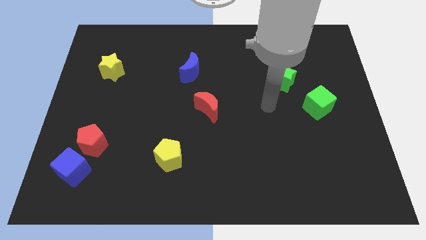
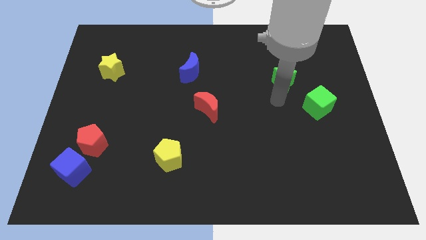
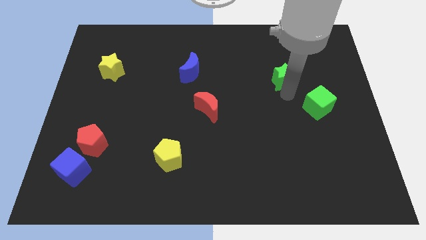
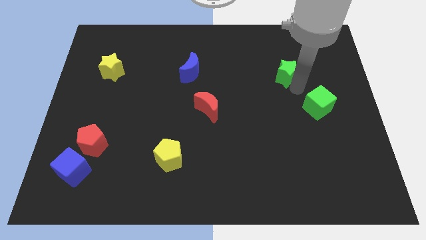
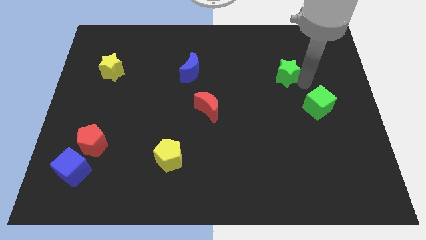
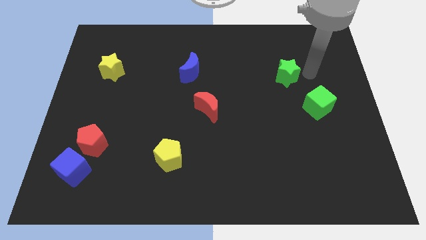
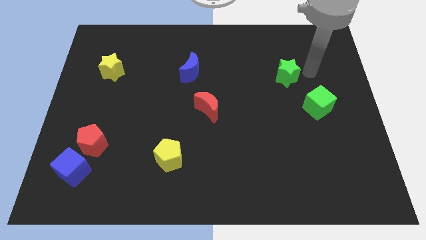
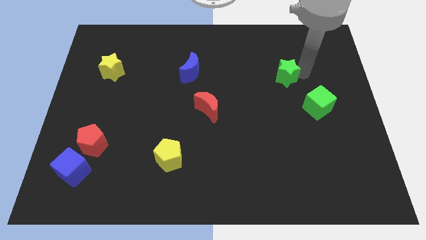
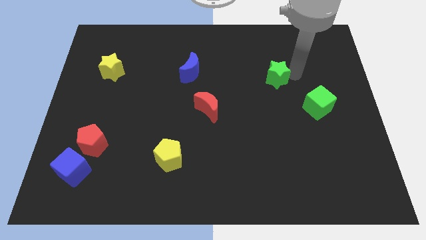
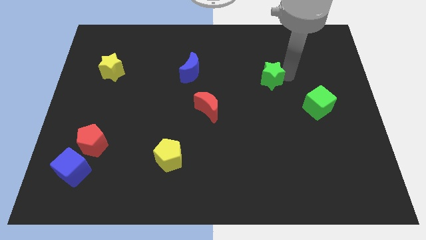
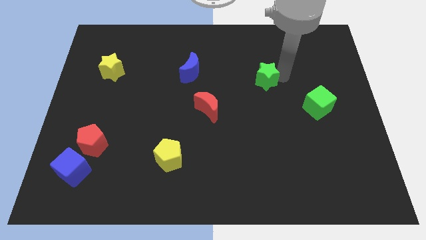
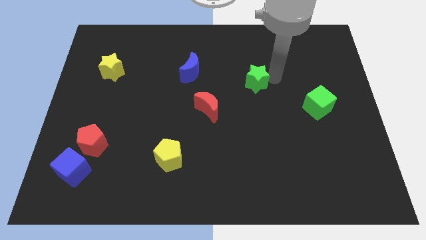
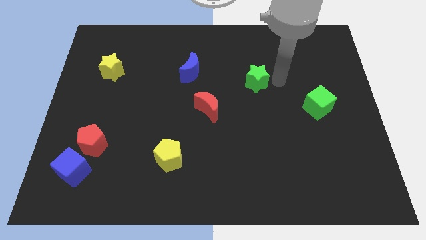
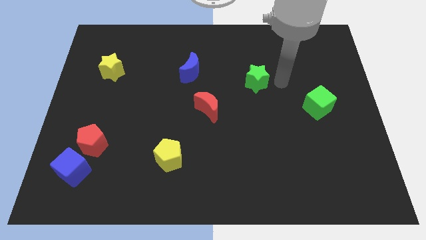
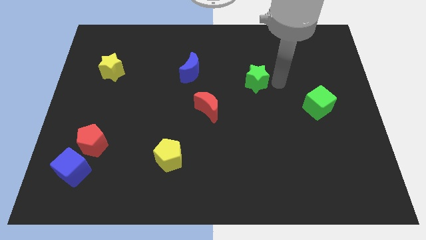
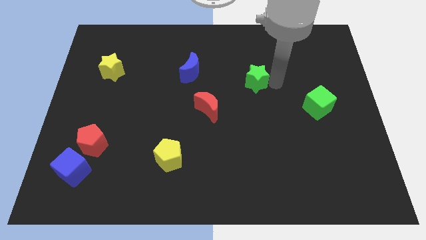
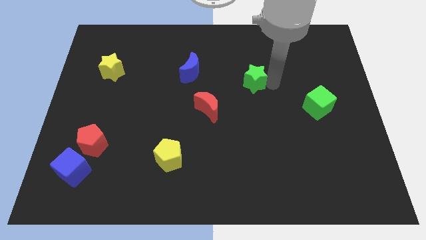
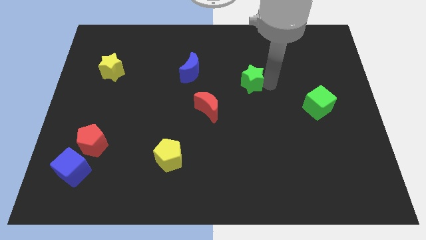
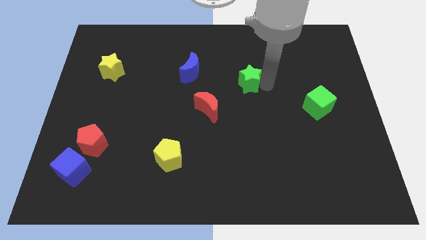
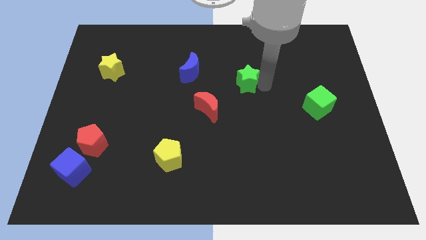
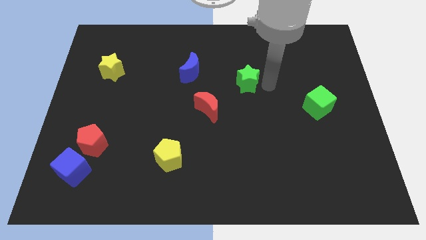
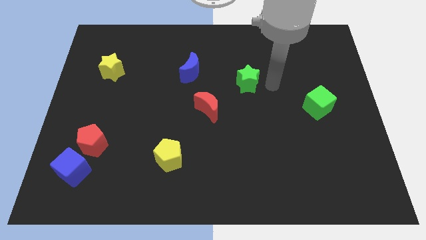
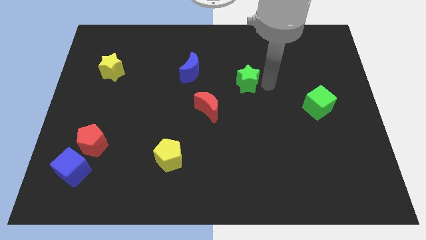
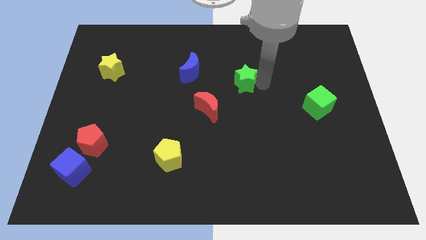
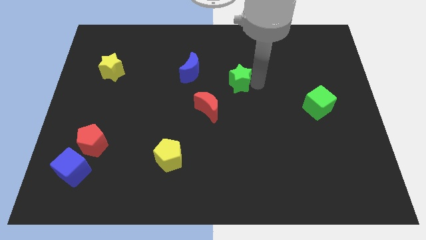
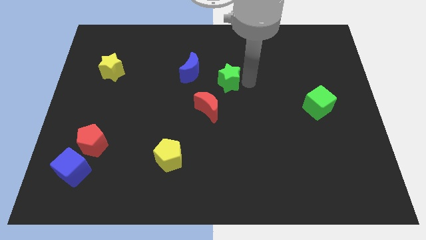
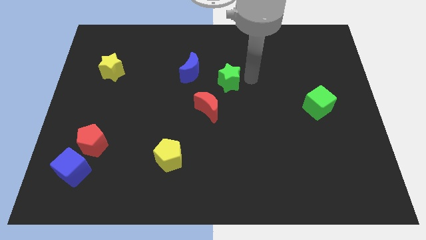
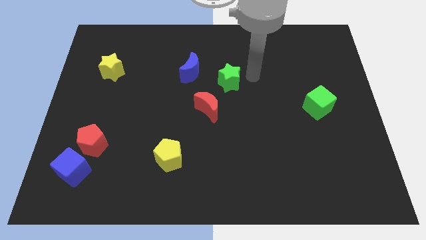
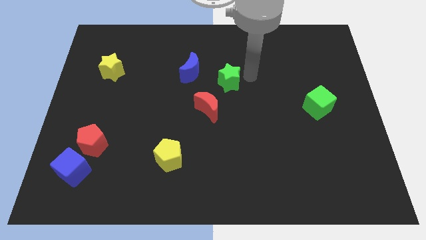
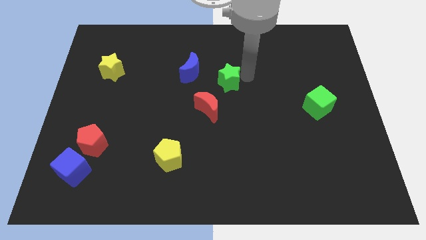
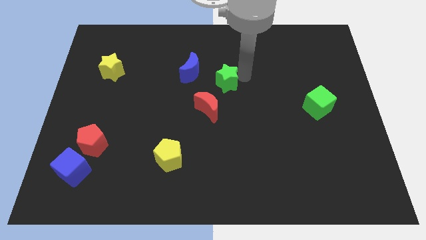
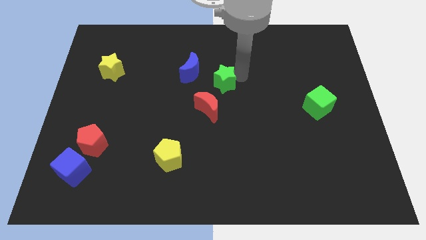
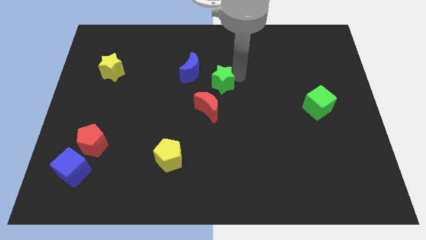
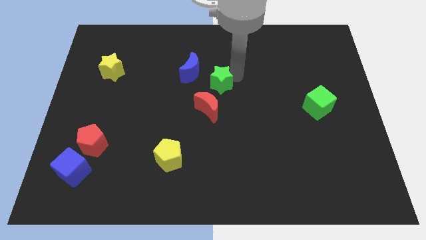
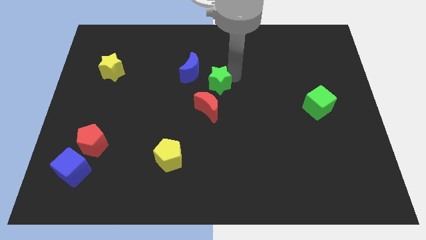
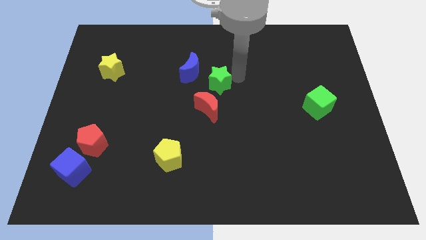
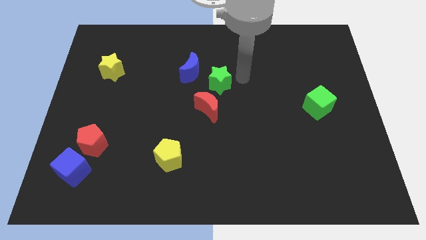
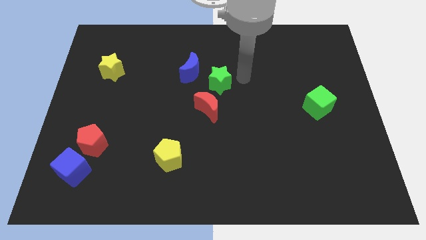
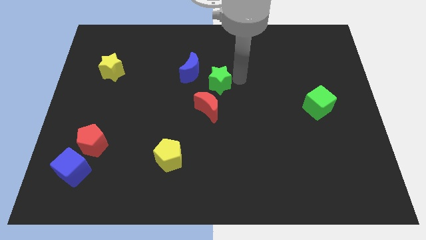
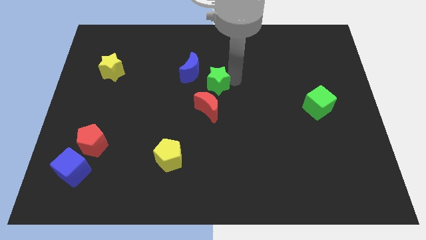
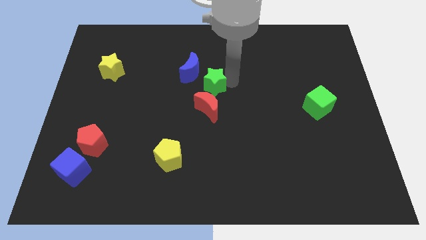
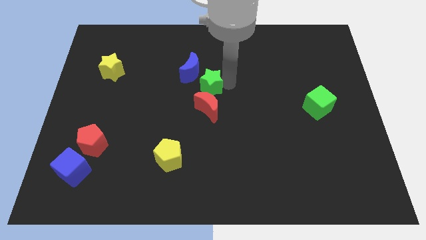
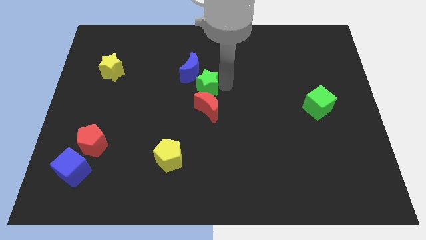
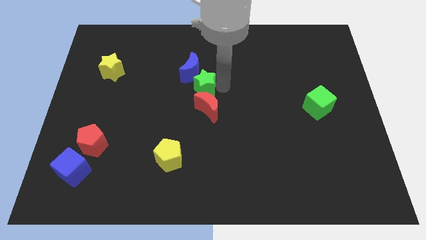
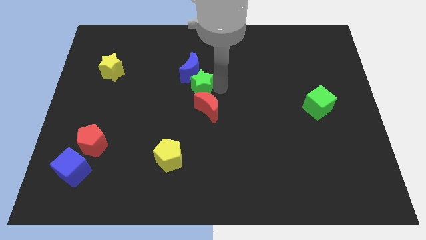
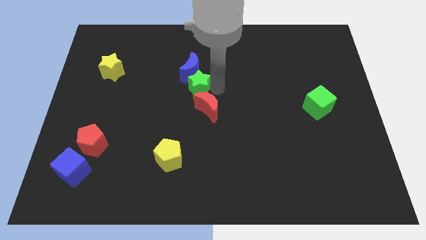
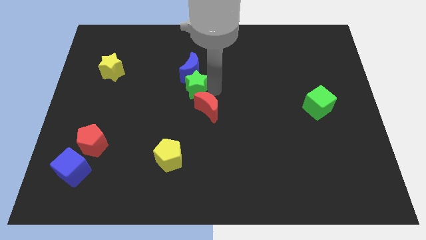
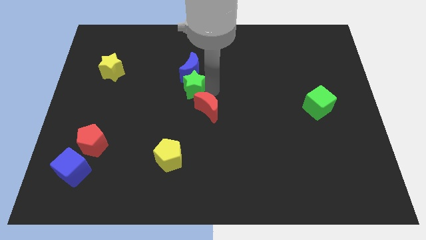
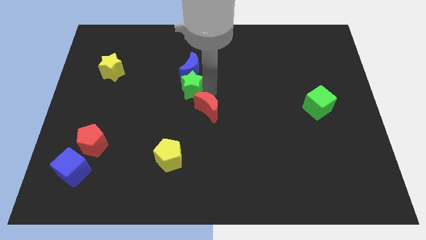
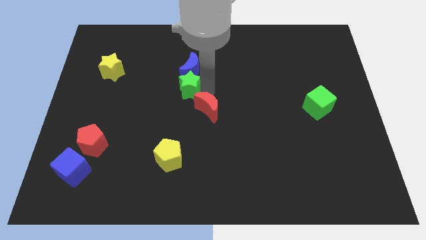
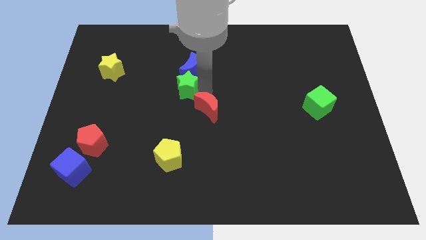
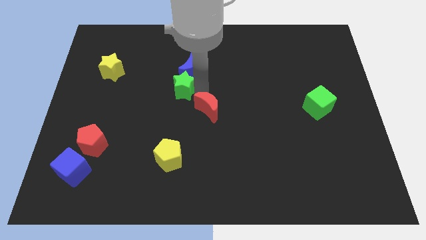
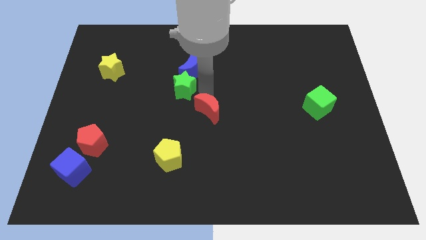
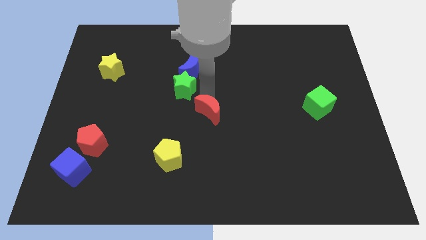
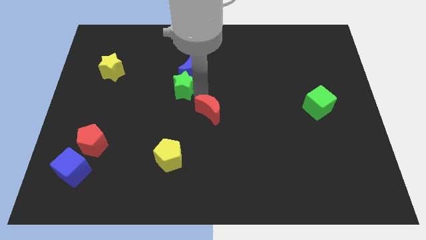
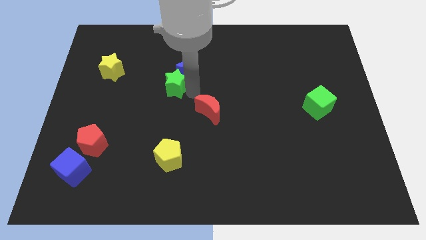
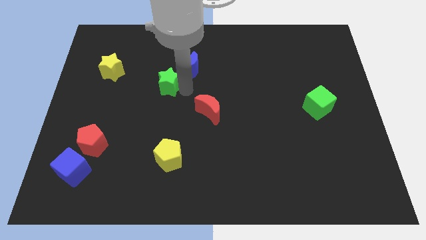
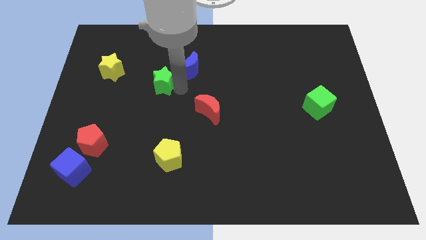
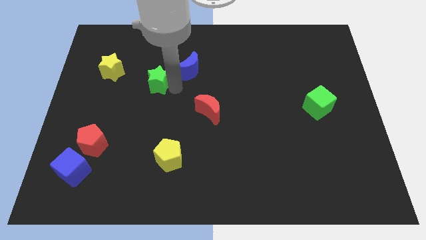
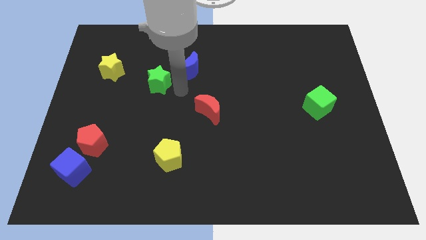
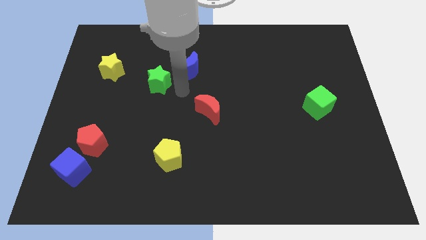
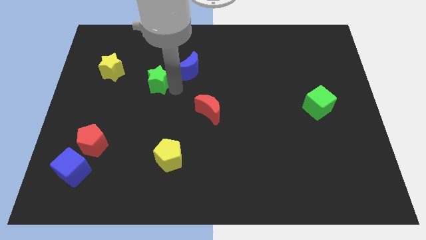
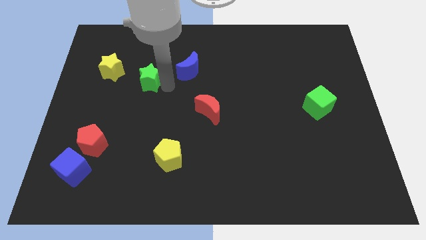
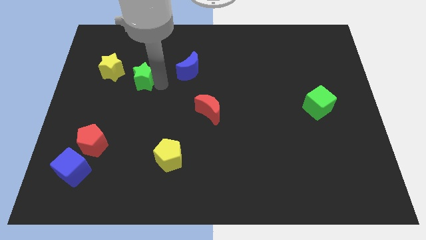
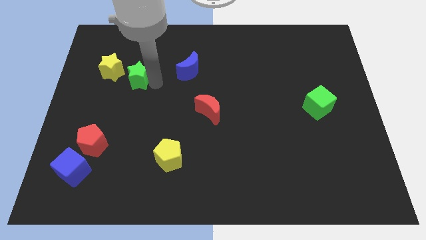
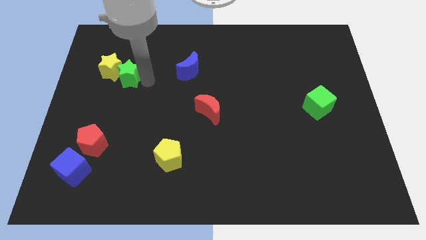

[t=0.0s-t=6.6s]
move the green star next to the yellow star

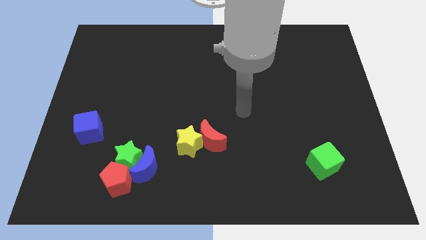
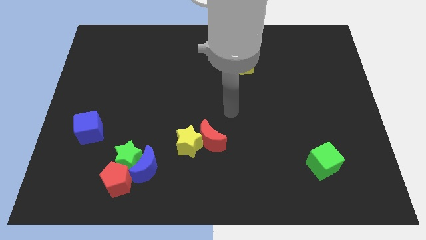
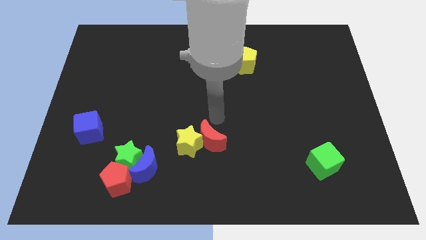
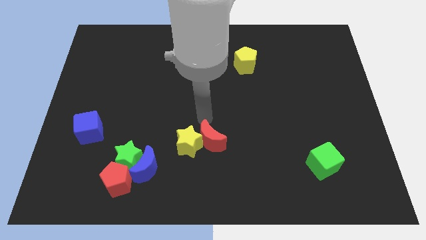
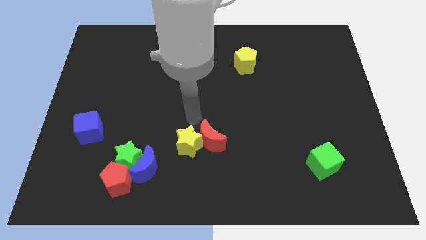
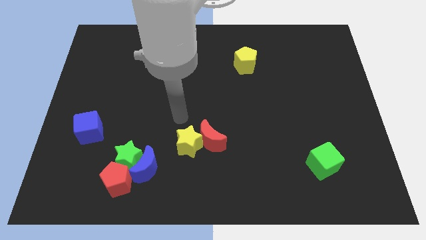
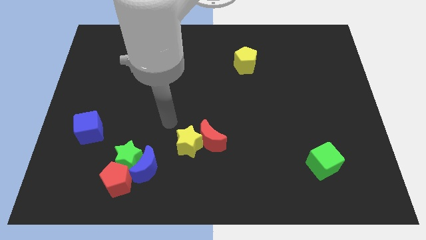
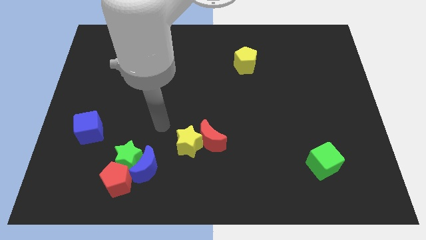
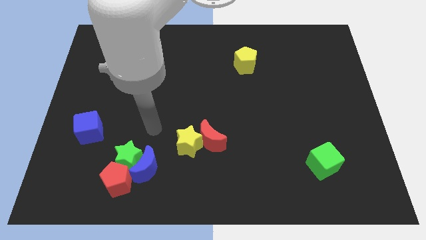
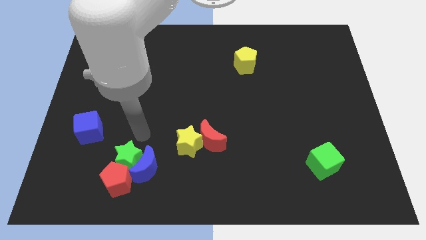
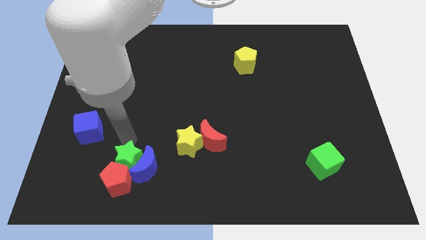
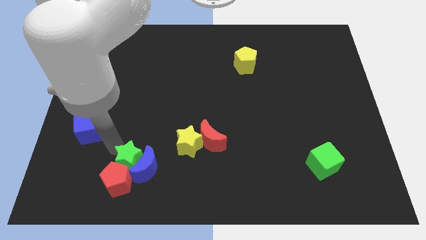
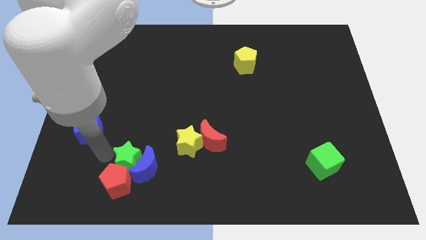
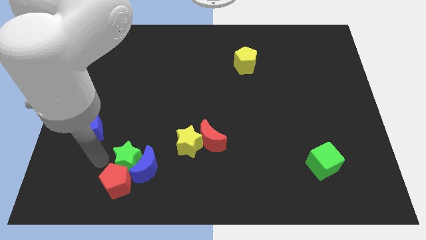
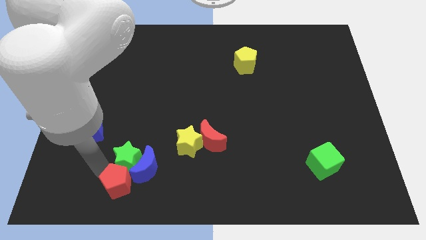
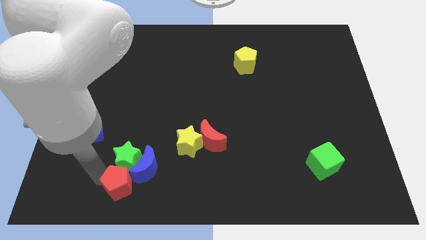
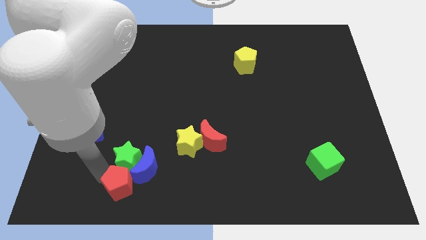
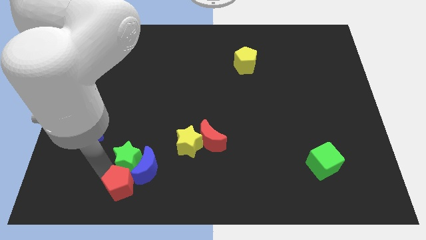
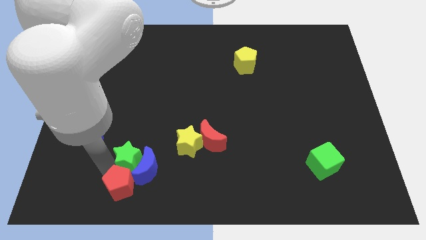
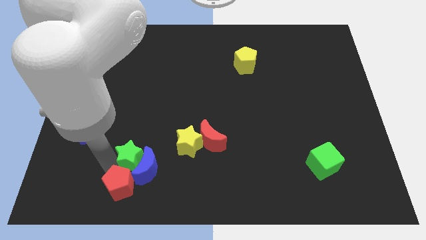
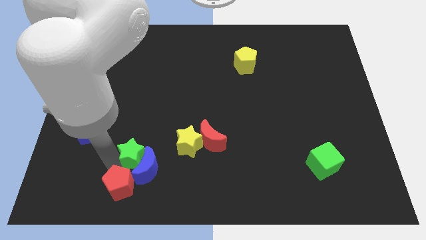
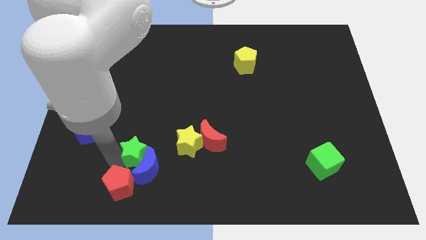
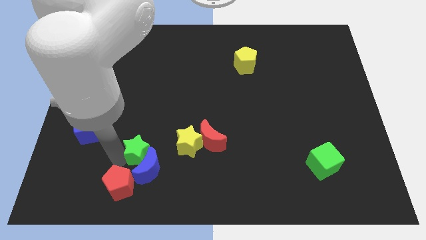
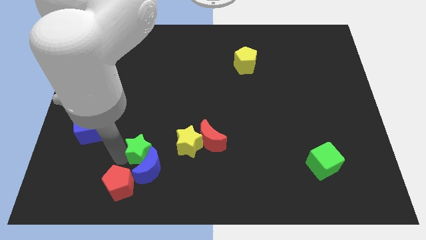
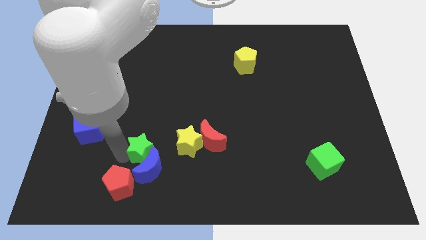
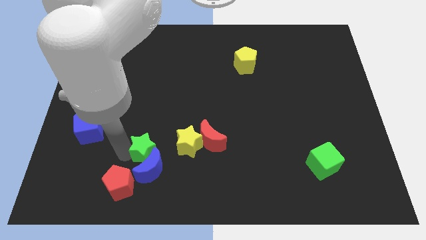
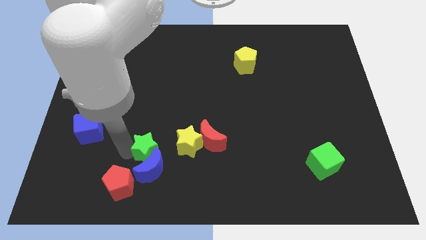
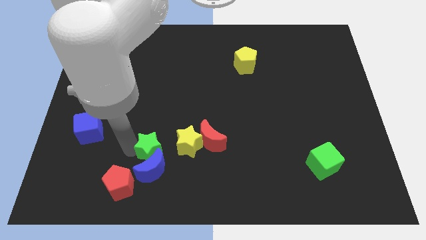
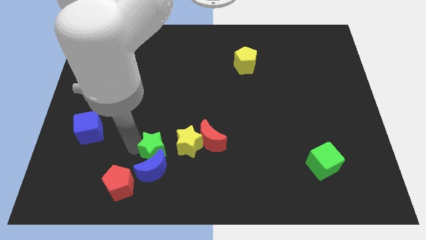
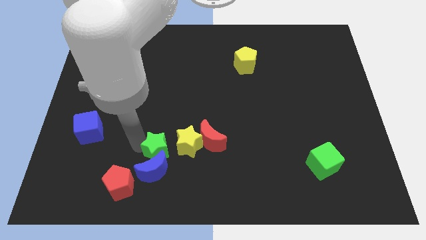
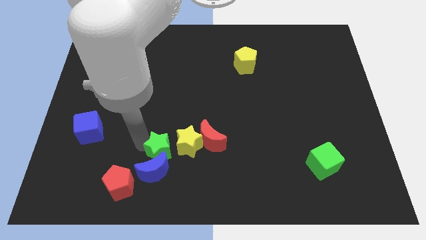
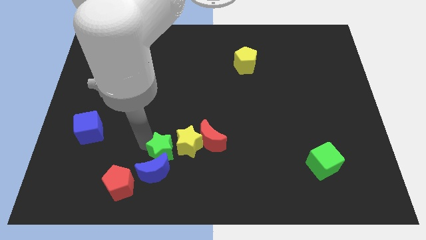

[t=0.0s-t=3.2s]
put the green star to the yellow star
